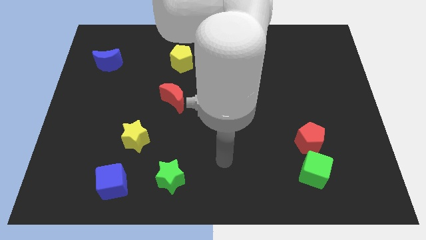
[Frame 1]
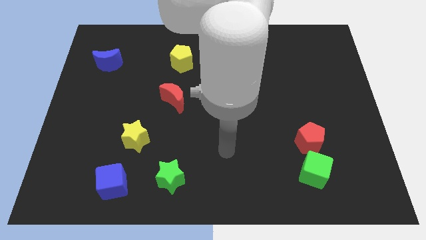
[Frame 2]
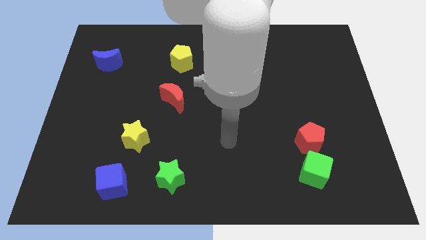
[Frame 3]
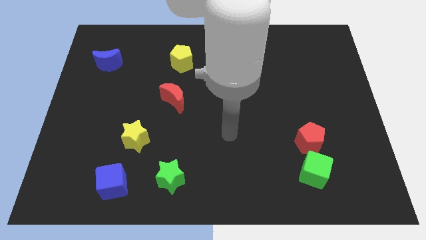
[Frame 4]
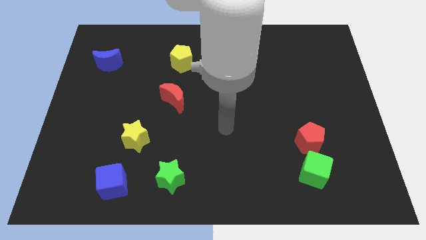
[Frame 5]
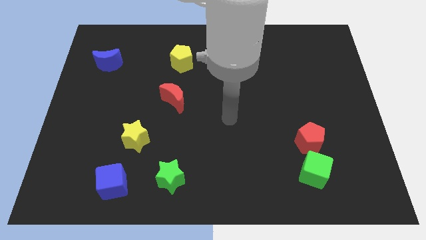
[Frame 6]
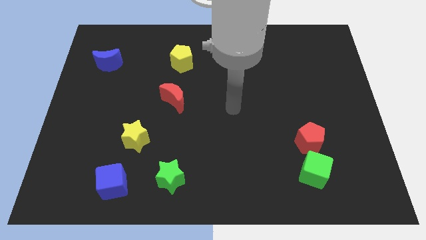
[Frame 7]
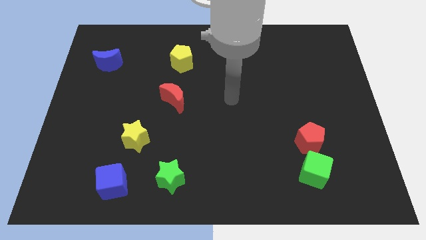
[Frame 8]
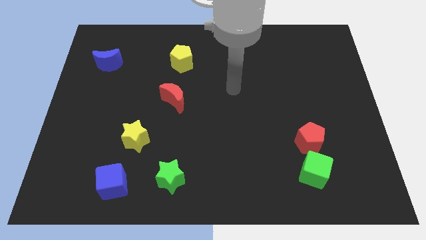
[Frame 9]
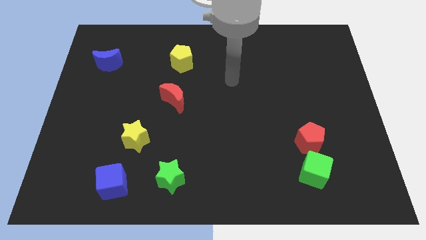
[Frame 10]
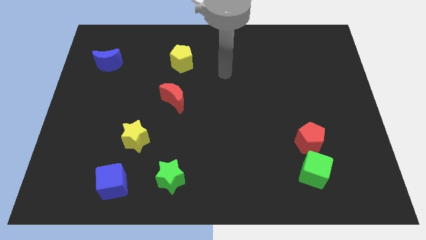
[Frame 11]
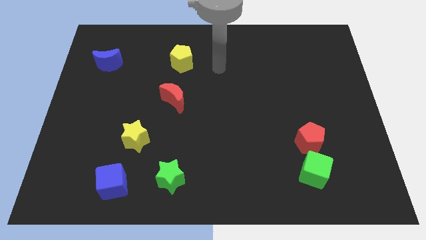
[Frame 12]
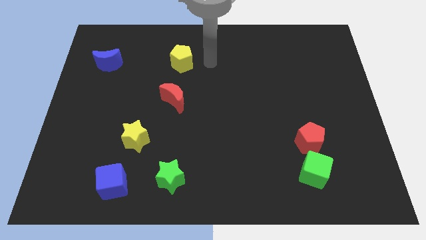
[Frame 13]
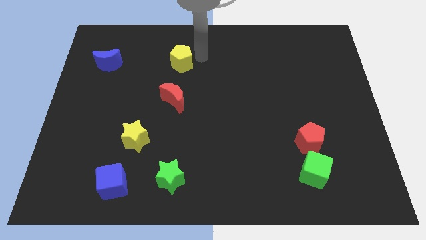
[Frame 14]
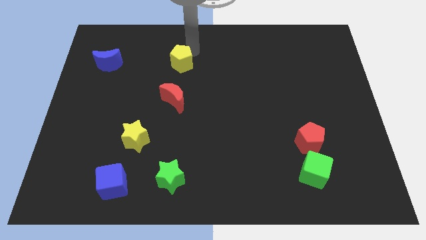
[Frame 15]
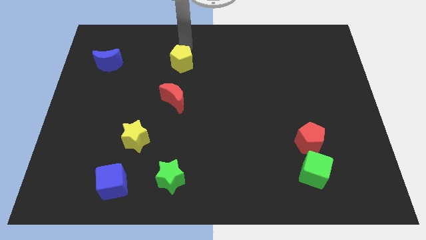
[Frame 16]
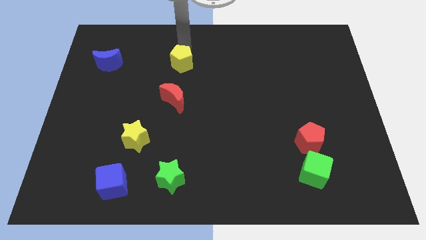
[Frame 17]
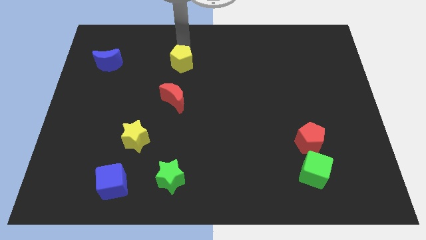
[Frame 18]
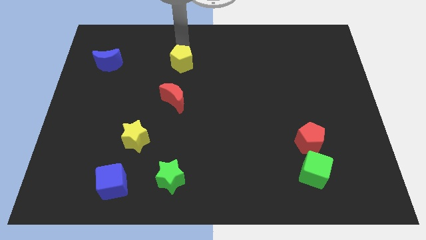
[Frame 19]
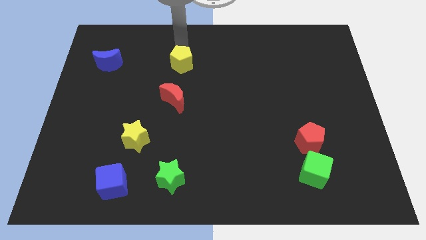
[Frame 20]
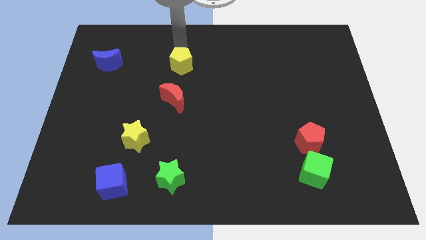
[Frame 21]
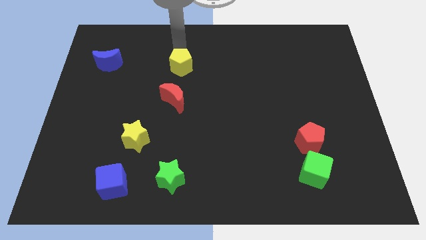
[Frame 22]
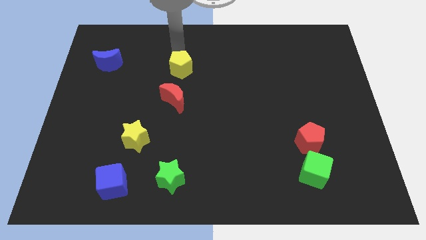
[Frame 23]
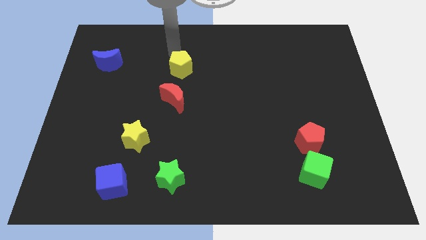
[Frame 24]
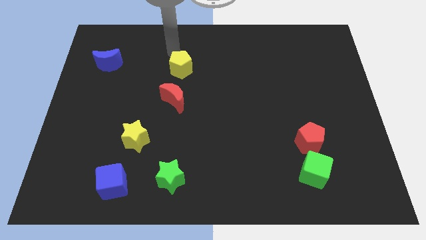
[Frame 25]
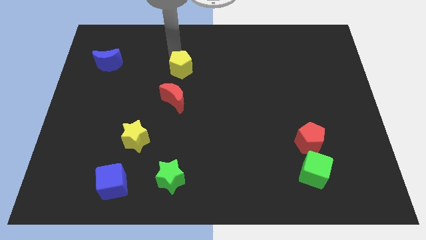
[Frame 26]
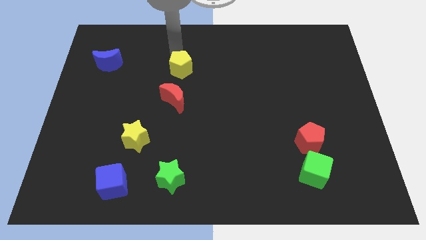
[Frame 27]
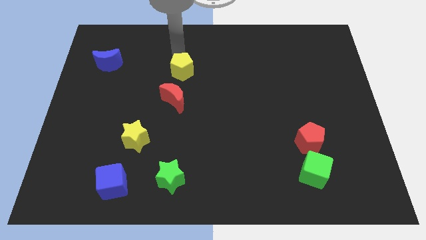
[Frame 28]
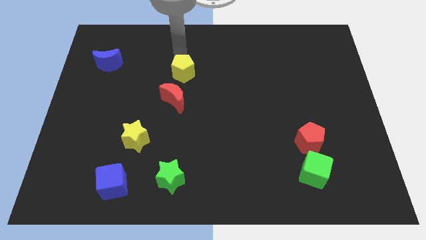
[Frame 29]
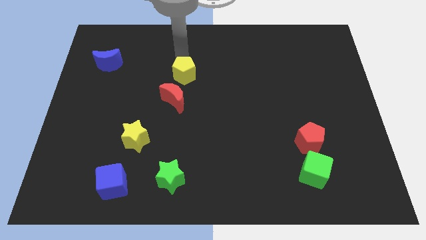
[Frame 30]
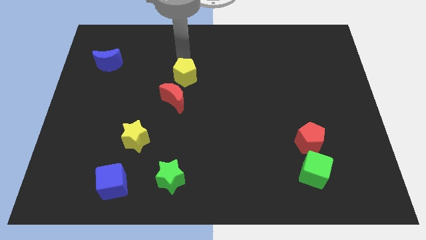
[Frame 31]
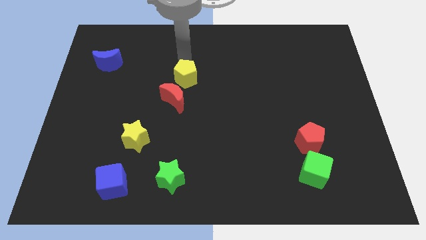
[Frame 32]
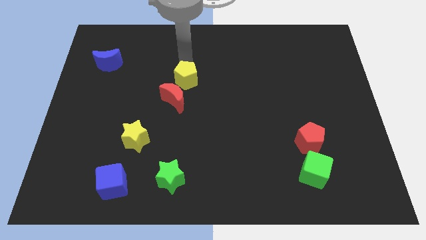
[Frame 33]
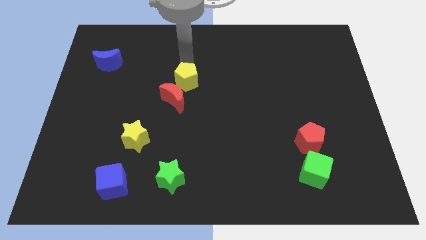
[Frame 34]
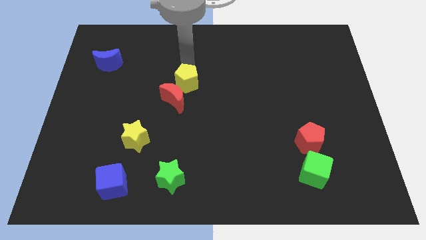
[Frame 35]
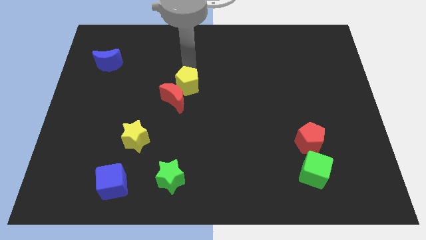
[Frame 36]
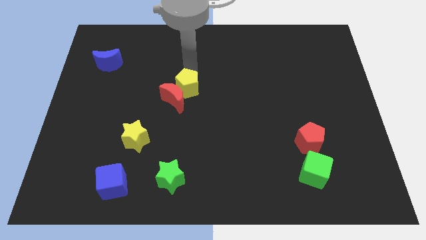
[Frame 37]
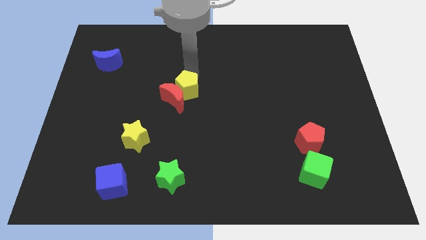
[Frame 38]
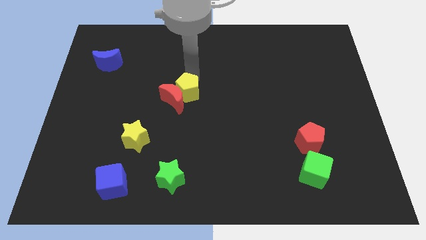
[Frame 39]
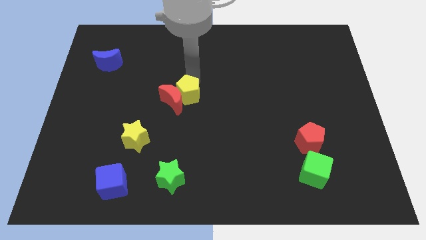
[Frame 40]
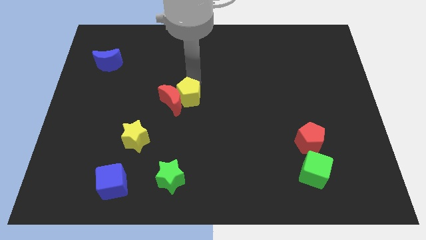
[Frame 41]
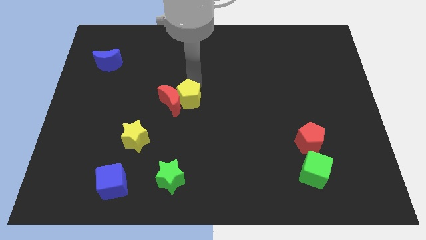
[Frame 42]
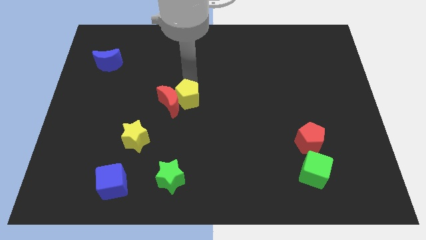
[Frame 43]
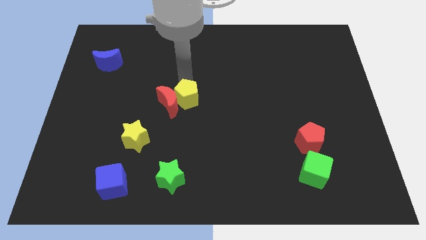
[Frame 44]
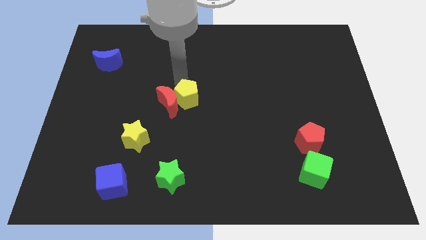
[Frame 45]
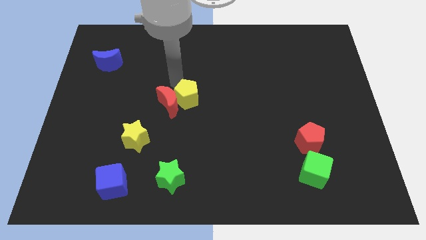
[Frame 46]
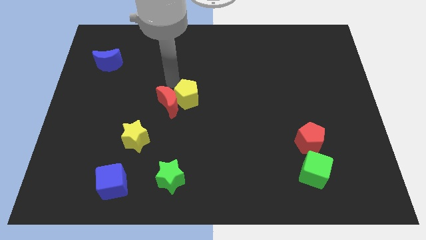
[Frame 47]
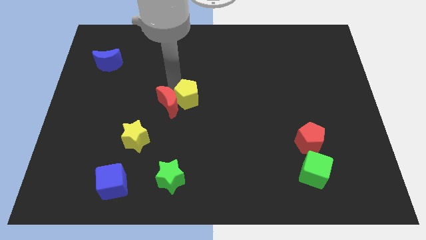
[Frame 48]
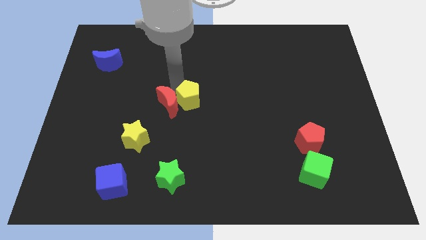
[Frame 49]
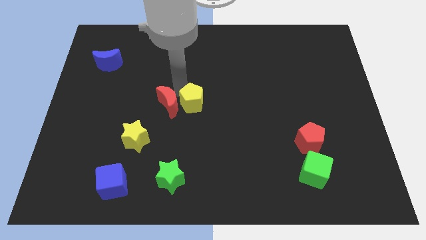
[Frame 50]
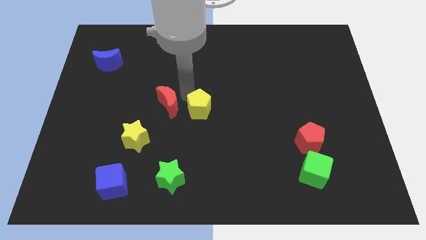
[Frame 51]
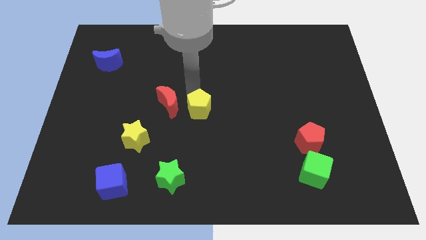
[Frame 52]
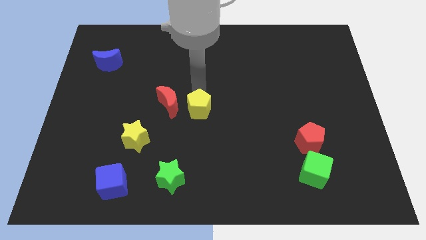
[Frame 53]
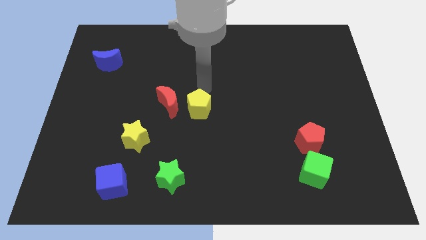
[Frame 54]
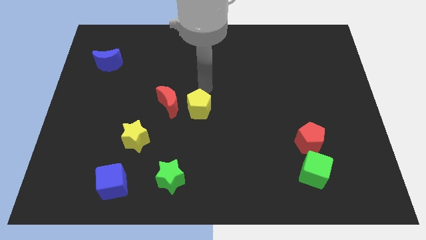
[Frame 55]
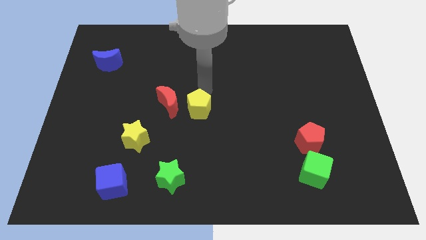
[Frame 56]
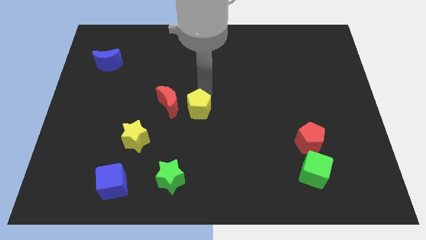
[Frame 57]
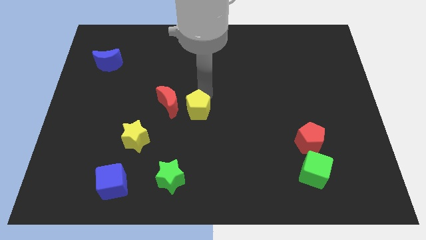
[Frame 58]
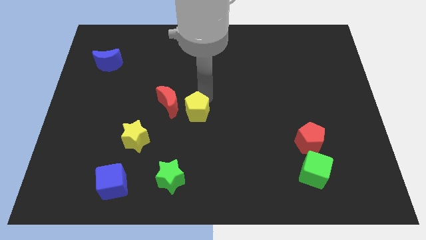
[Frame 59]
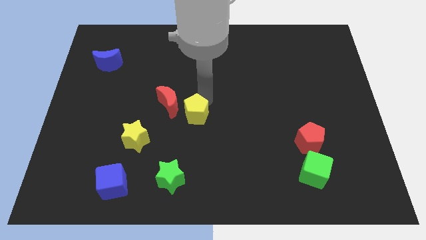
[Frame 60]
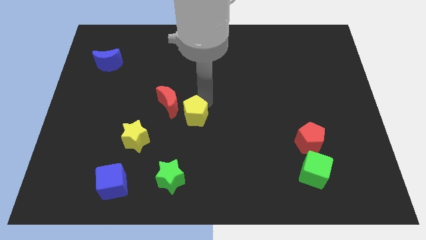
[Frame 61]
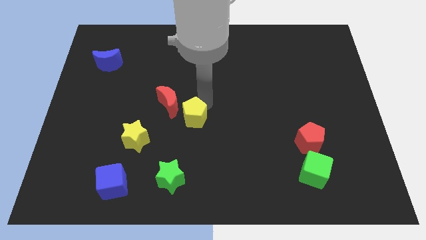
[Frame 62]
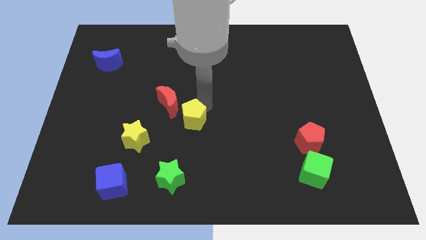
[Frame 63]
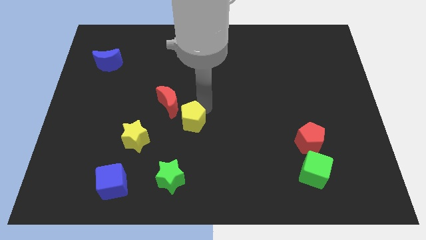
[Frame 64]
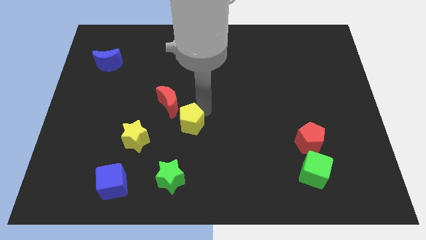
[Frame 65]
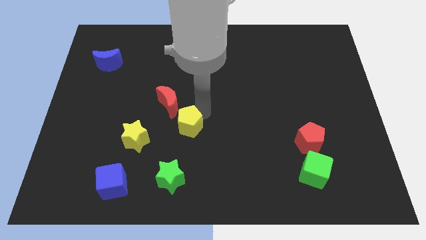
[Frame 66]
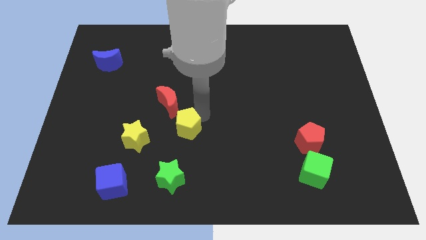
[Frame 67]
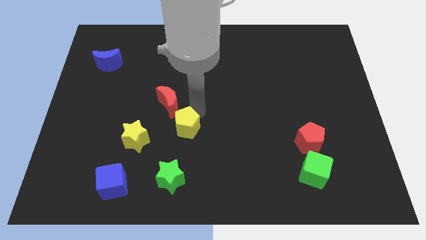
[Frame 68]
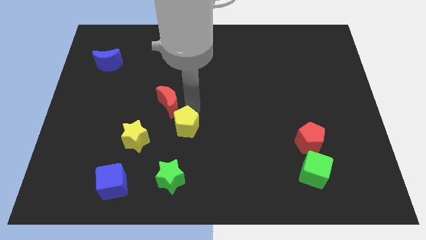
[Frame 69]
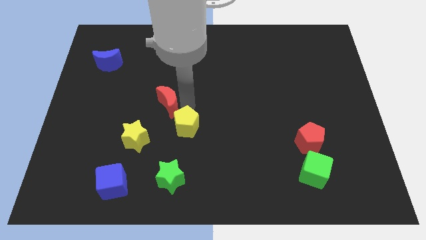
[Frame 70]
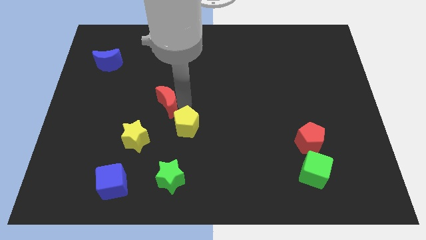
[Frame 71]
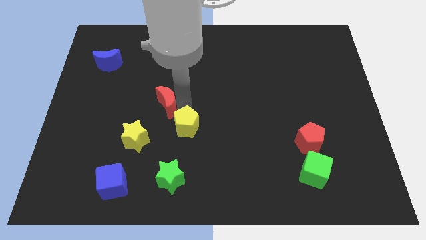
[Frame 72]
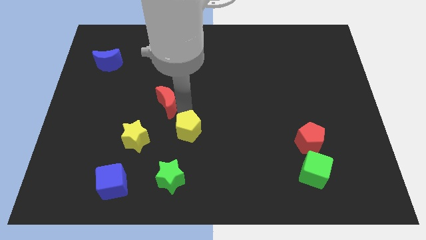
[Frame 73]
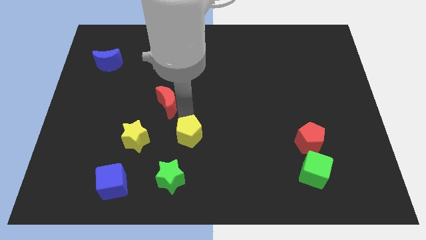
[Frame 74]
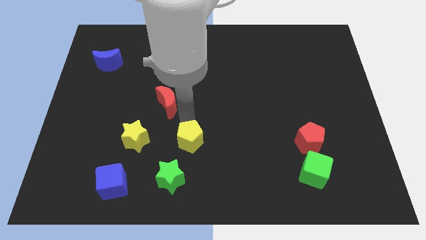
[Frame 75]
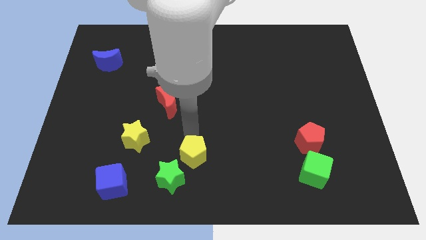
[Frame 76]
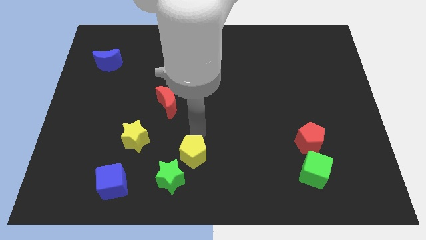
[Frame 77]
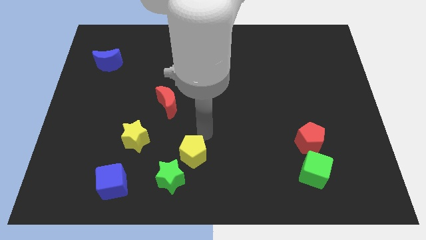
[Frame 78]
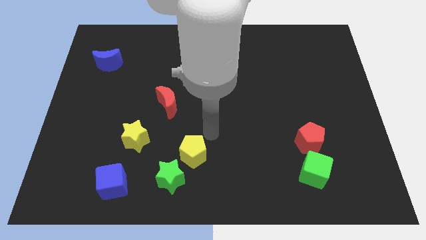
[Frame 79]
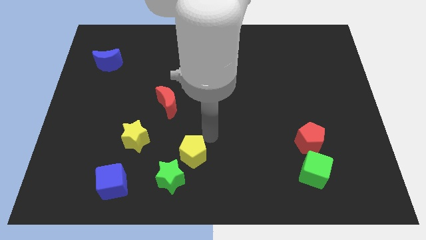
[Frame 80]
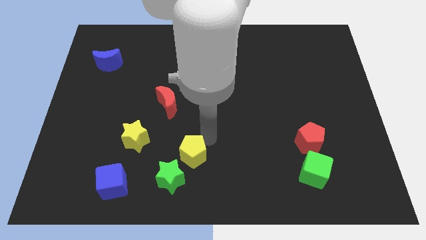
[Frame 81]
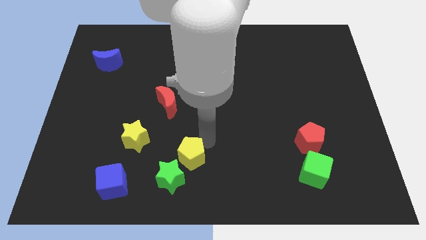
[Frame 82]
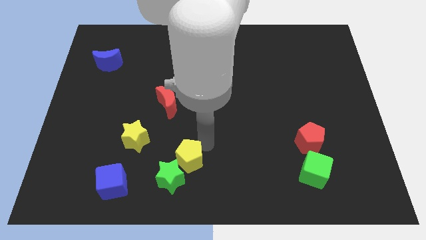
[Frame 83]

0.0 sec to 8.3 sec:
push the yellow pentagon next to the green star
